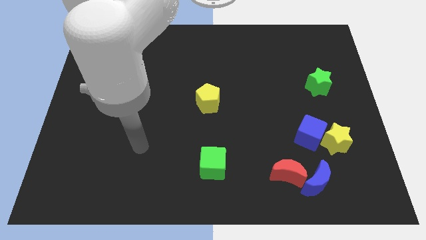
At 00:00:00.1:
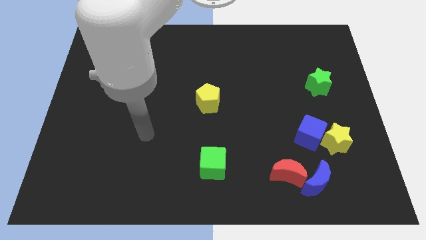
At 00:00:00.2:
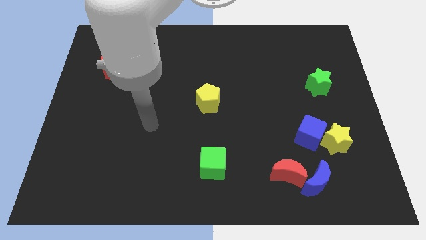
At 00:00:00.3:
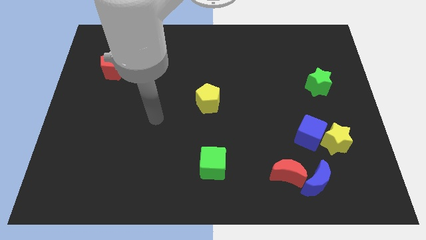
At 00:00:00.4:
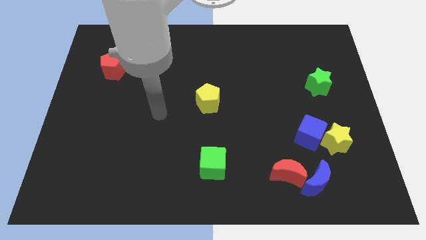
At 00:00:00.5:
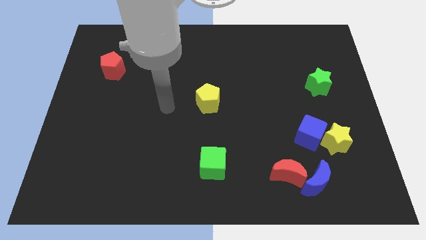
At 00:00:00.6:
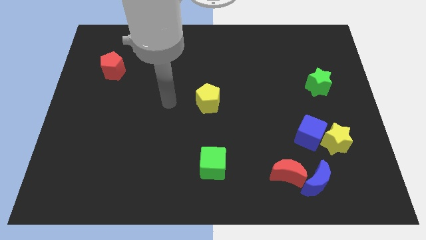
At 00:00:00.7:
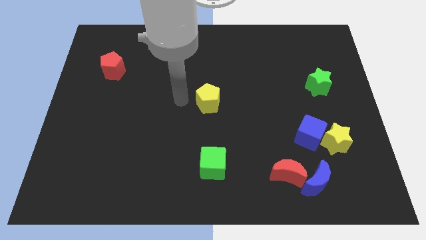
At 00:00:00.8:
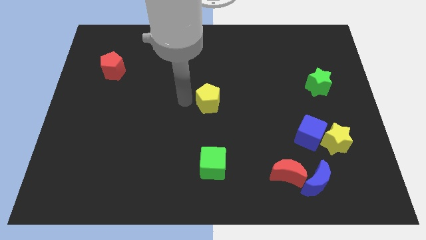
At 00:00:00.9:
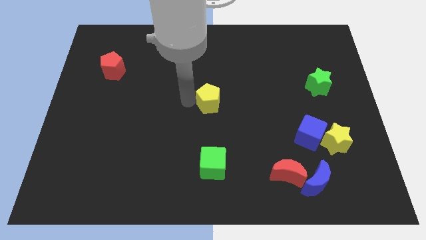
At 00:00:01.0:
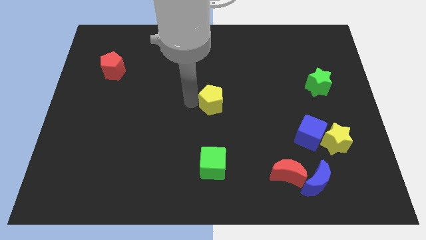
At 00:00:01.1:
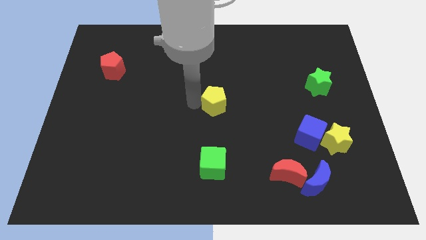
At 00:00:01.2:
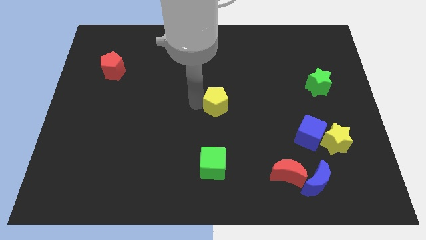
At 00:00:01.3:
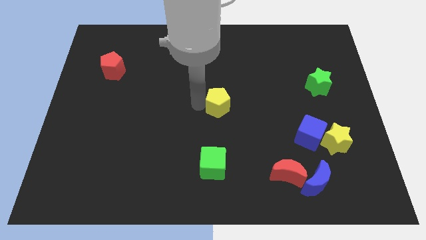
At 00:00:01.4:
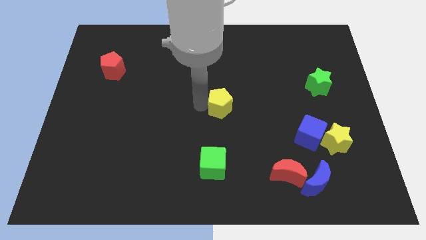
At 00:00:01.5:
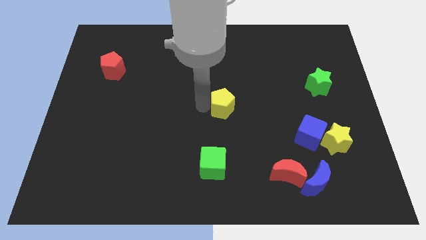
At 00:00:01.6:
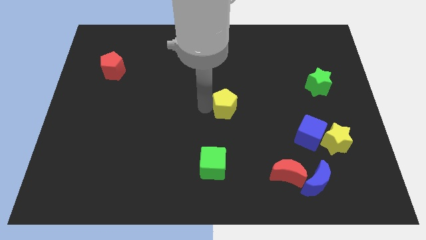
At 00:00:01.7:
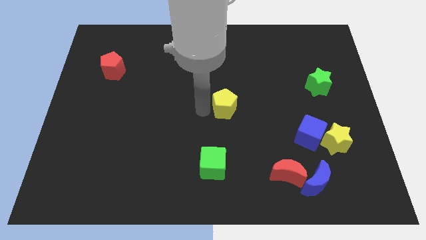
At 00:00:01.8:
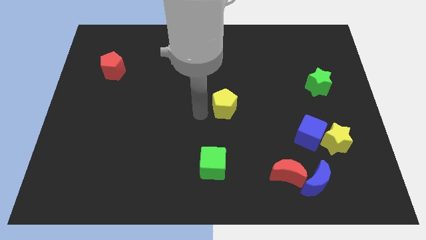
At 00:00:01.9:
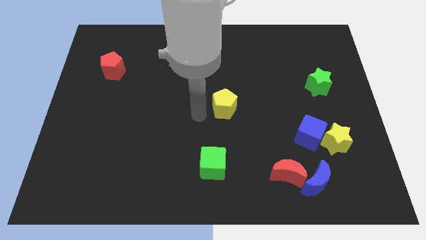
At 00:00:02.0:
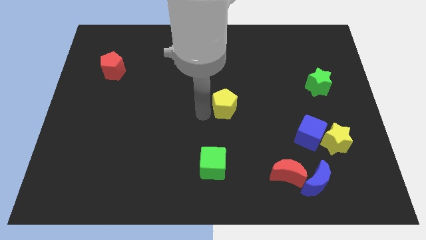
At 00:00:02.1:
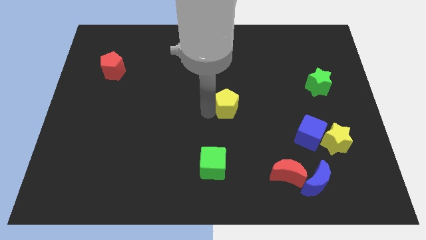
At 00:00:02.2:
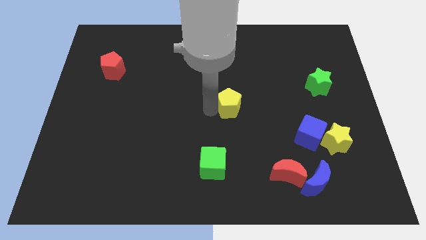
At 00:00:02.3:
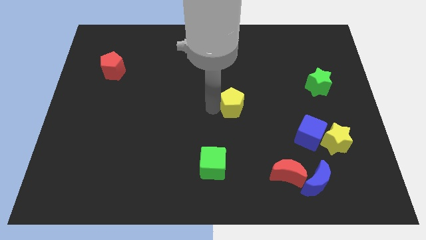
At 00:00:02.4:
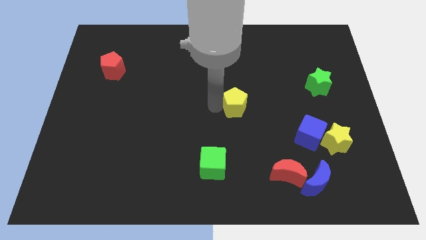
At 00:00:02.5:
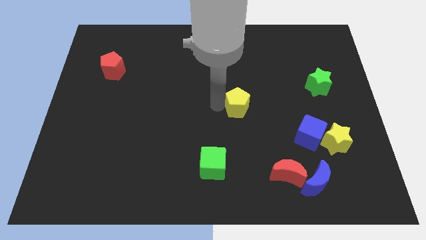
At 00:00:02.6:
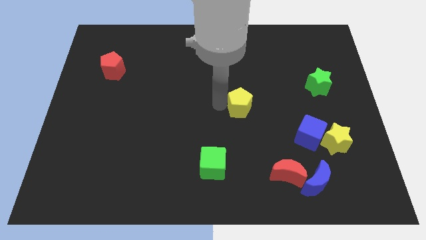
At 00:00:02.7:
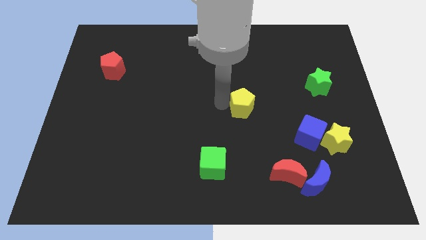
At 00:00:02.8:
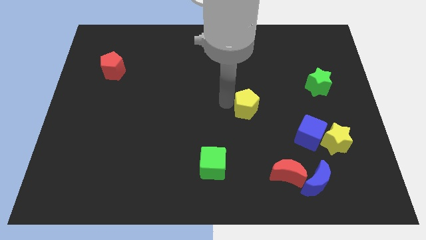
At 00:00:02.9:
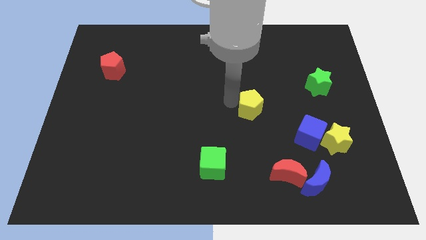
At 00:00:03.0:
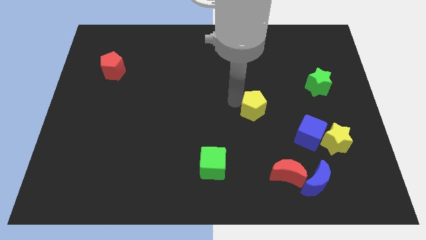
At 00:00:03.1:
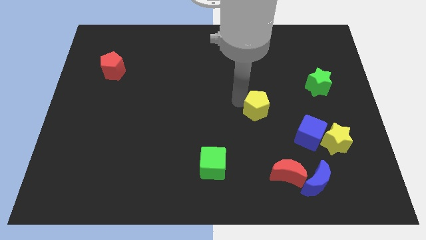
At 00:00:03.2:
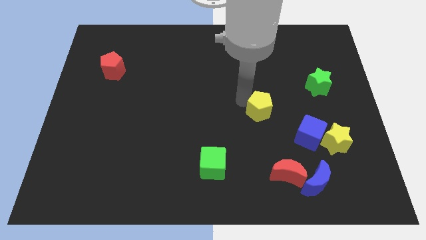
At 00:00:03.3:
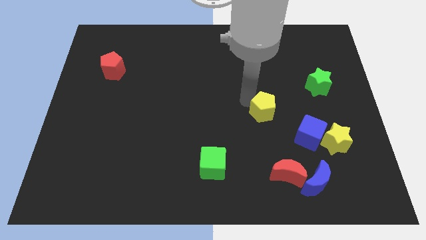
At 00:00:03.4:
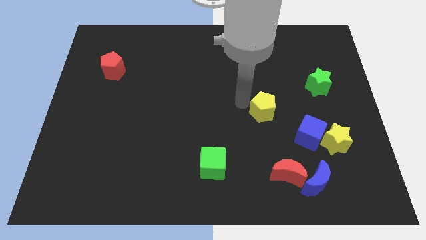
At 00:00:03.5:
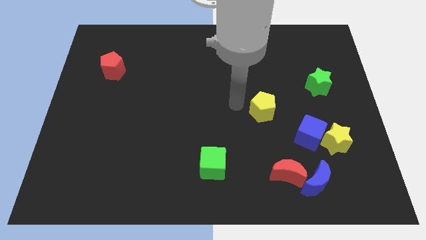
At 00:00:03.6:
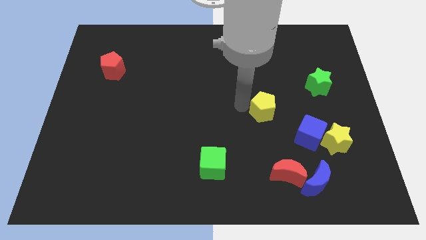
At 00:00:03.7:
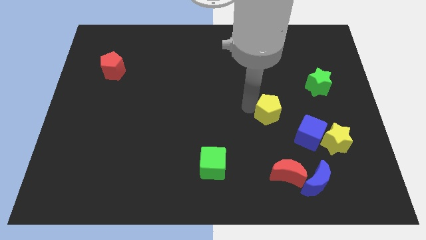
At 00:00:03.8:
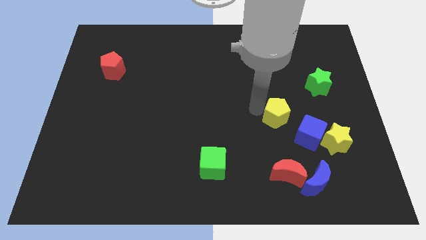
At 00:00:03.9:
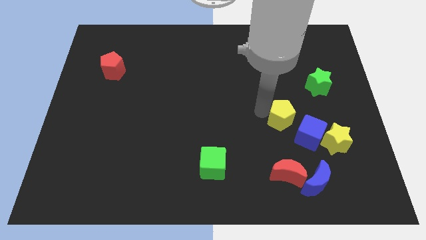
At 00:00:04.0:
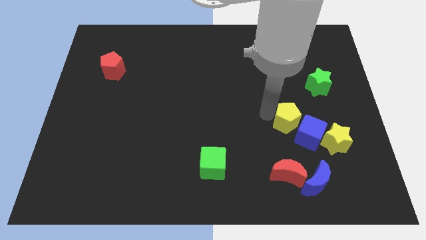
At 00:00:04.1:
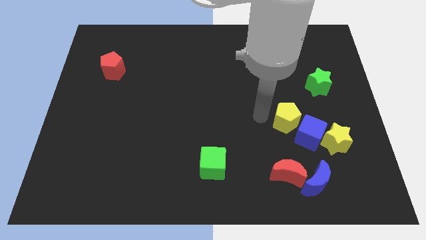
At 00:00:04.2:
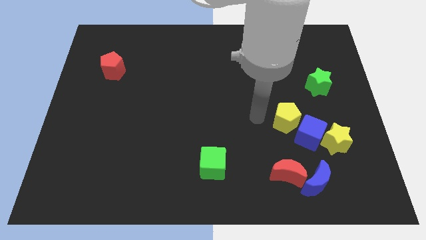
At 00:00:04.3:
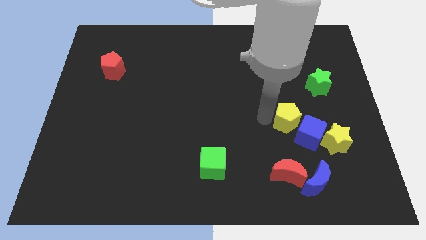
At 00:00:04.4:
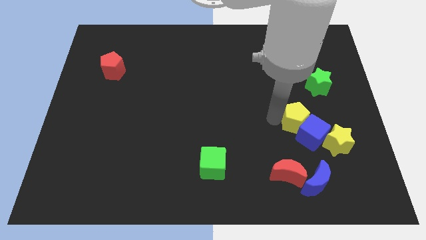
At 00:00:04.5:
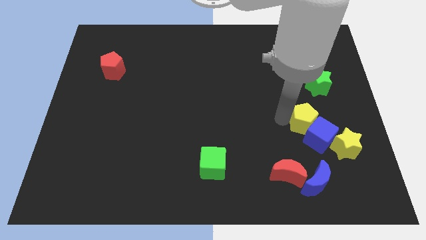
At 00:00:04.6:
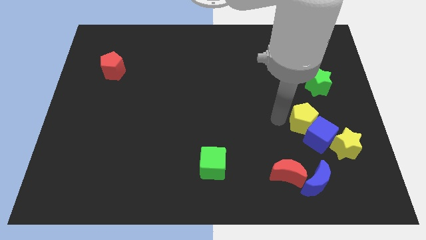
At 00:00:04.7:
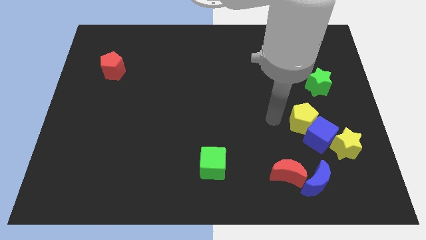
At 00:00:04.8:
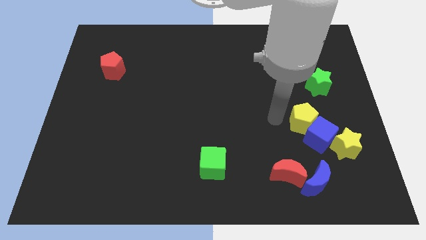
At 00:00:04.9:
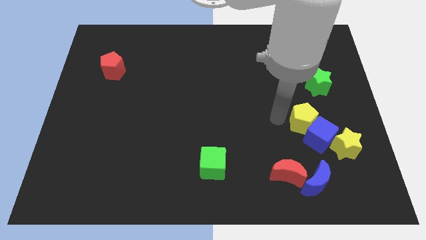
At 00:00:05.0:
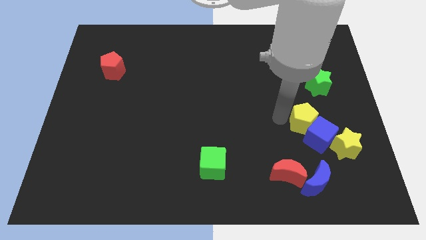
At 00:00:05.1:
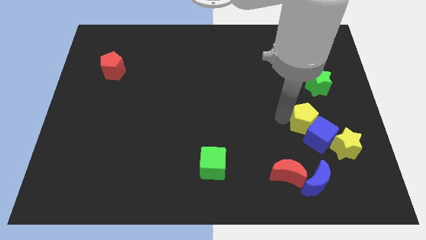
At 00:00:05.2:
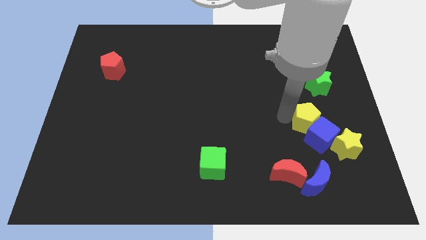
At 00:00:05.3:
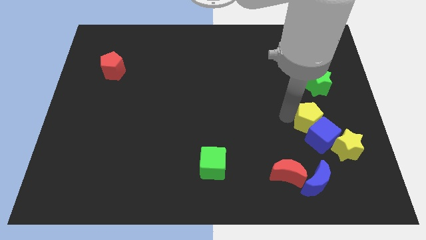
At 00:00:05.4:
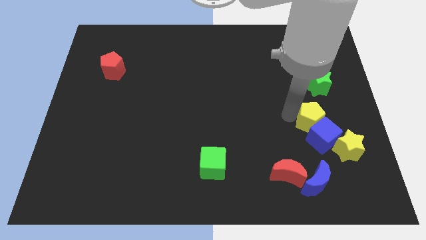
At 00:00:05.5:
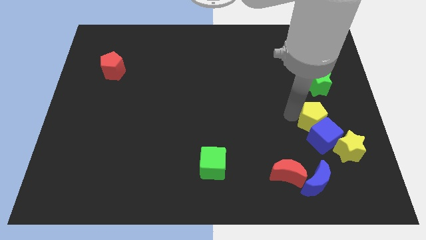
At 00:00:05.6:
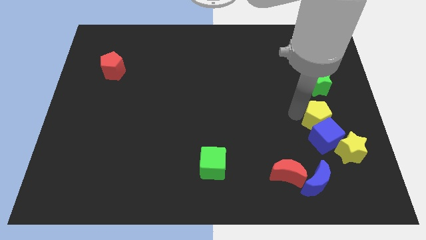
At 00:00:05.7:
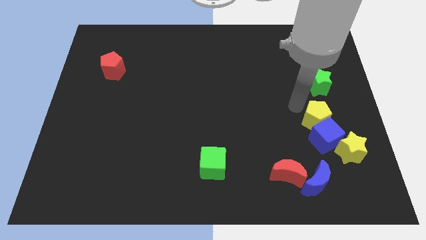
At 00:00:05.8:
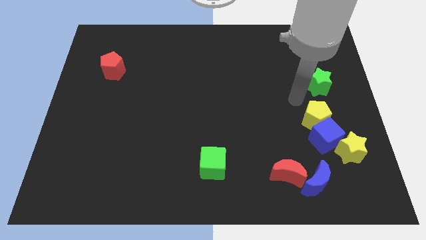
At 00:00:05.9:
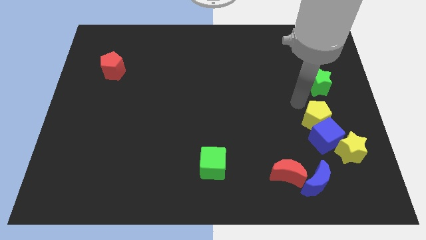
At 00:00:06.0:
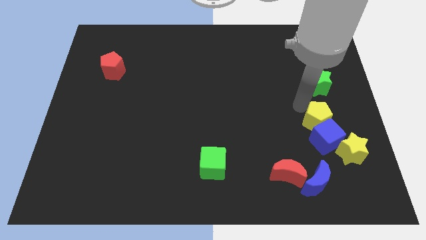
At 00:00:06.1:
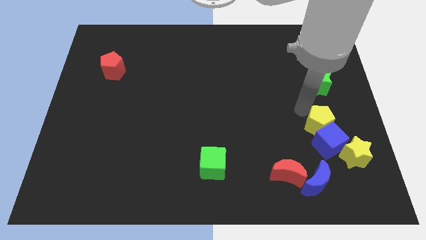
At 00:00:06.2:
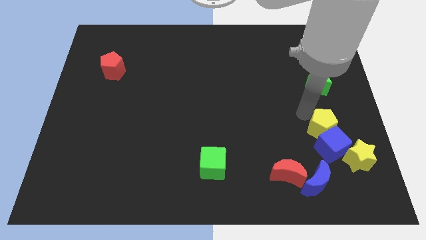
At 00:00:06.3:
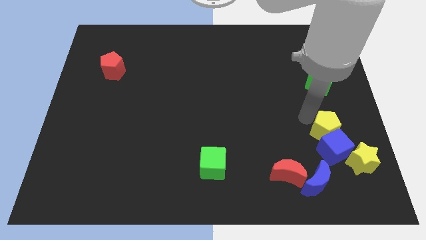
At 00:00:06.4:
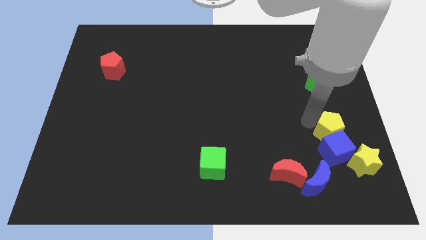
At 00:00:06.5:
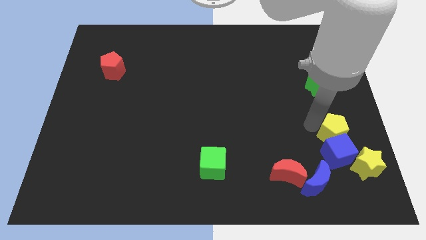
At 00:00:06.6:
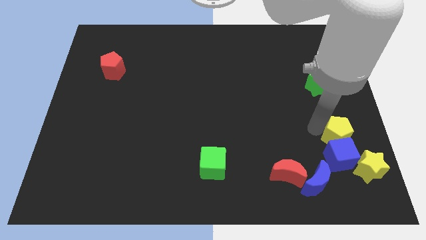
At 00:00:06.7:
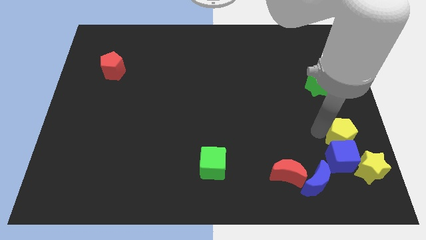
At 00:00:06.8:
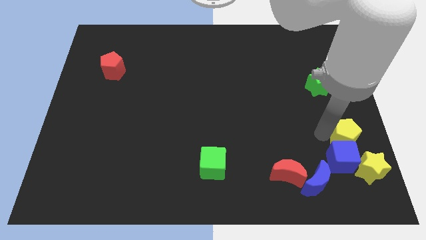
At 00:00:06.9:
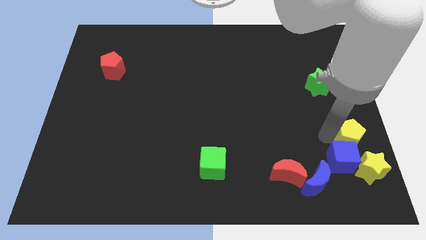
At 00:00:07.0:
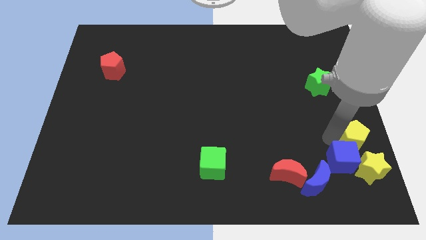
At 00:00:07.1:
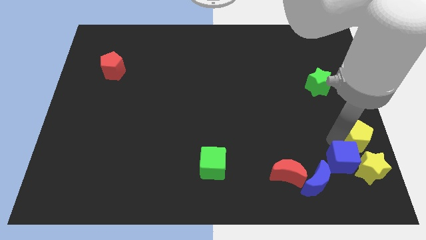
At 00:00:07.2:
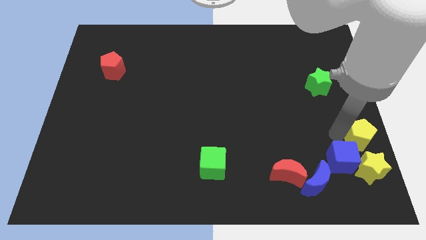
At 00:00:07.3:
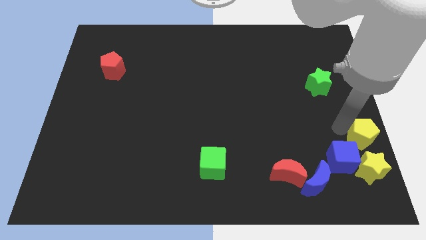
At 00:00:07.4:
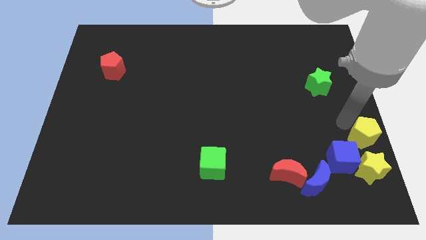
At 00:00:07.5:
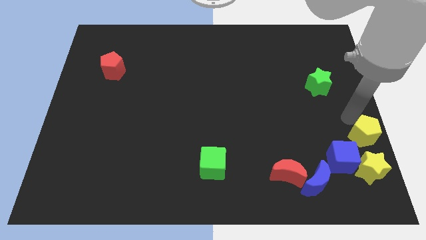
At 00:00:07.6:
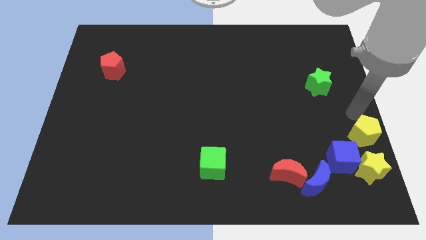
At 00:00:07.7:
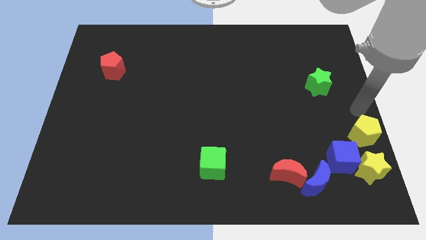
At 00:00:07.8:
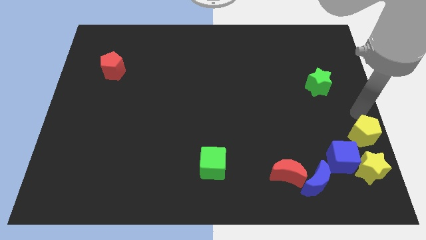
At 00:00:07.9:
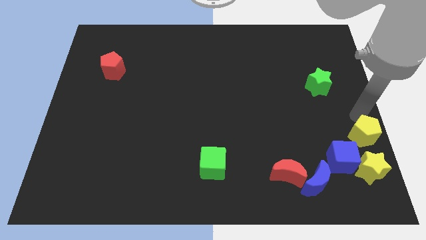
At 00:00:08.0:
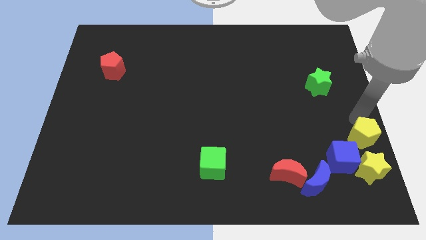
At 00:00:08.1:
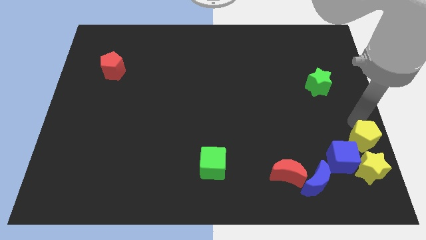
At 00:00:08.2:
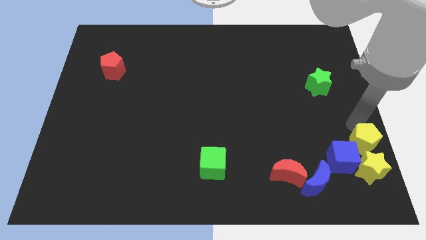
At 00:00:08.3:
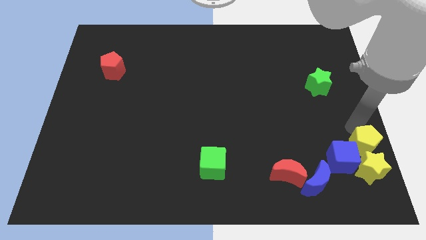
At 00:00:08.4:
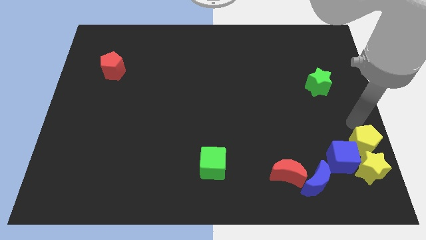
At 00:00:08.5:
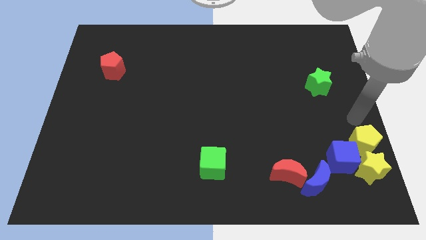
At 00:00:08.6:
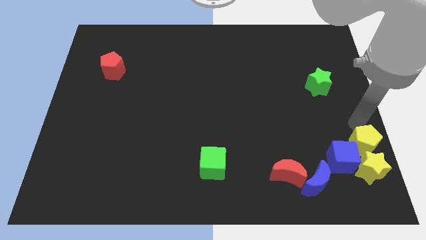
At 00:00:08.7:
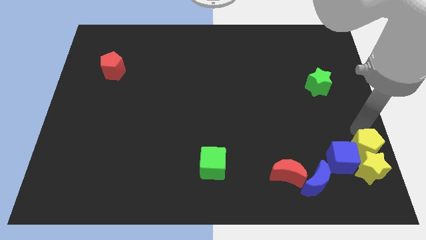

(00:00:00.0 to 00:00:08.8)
slide the yellow pentagon to the yellow star
